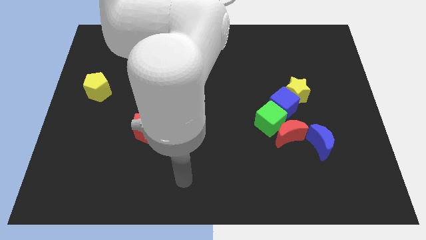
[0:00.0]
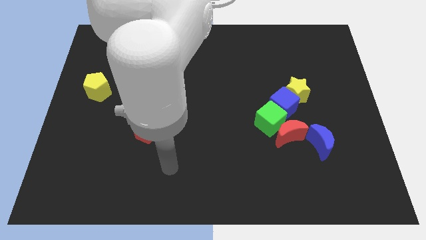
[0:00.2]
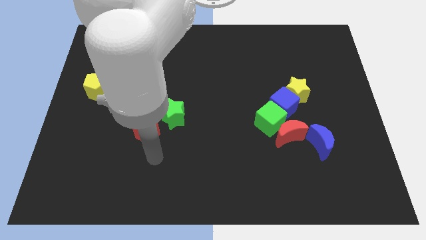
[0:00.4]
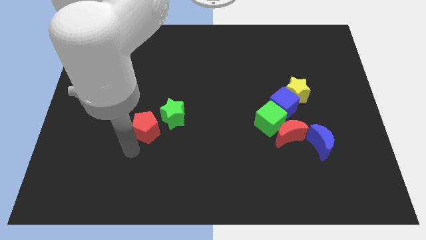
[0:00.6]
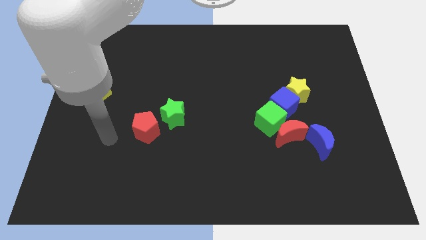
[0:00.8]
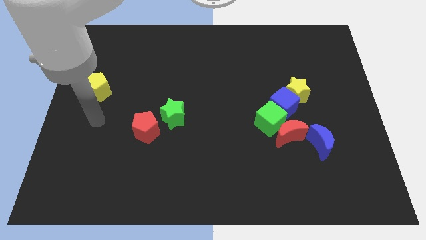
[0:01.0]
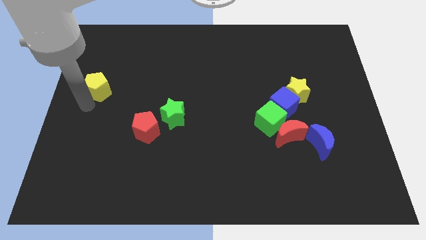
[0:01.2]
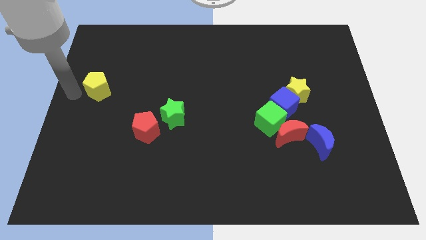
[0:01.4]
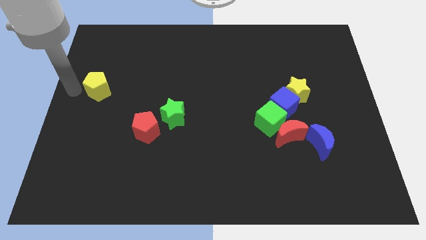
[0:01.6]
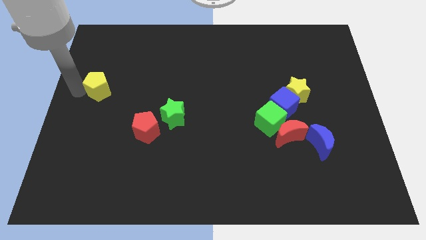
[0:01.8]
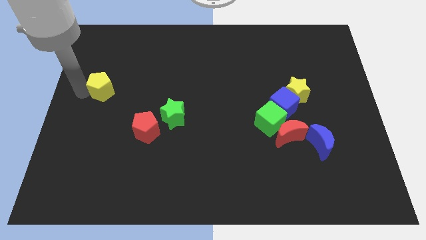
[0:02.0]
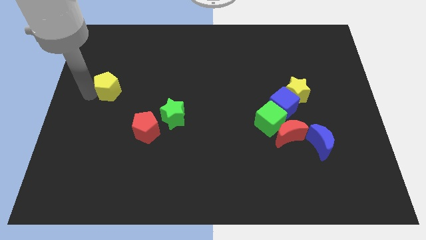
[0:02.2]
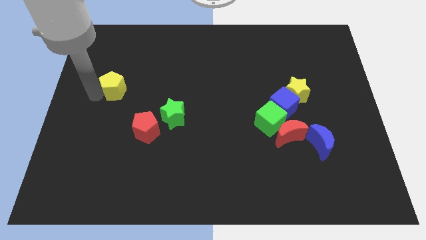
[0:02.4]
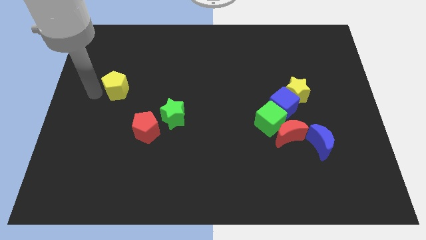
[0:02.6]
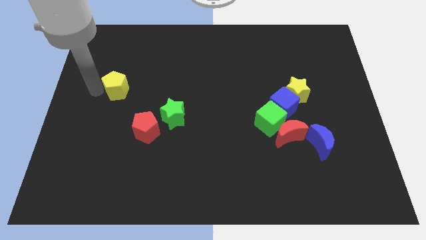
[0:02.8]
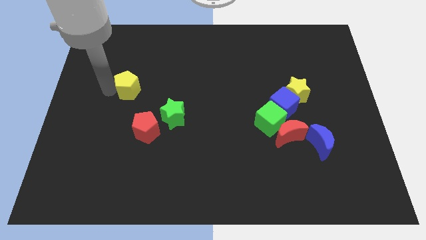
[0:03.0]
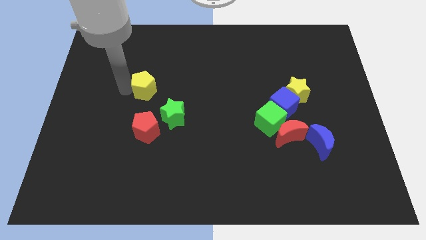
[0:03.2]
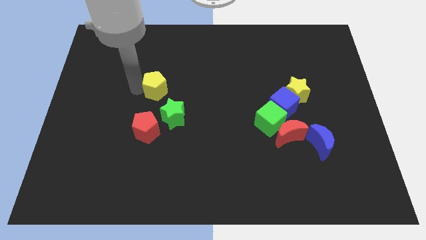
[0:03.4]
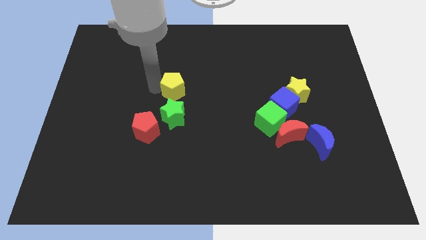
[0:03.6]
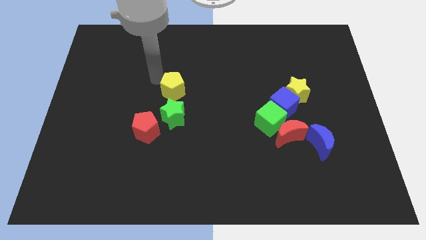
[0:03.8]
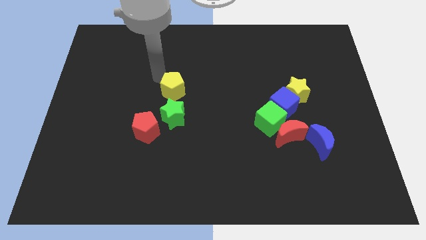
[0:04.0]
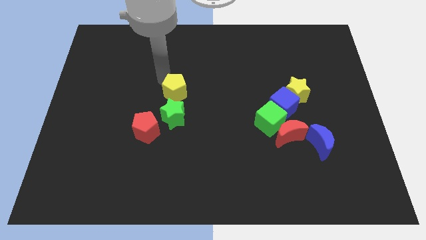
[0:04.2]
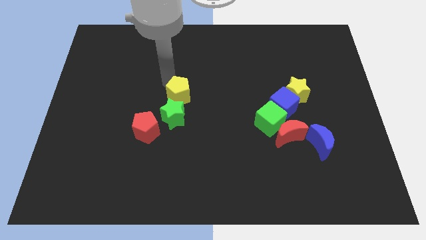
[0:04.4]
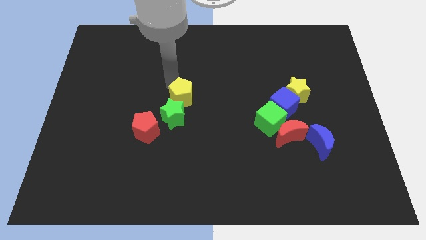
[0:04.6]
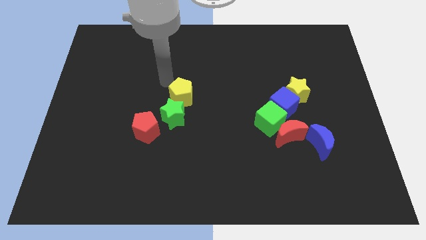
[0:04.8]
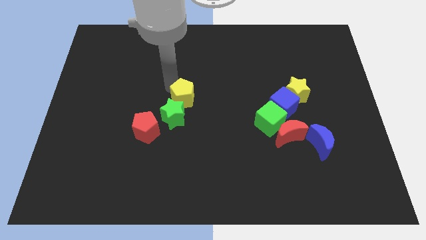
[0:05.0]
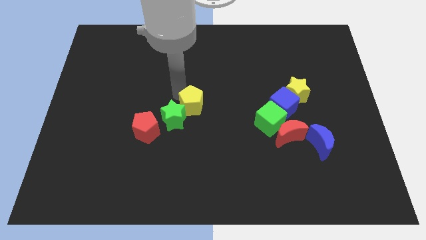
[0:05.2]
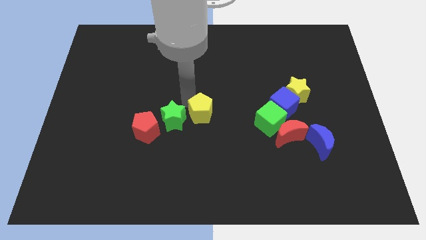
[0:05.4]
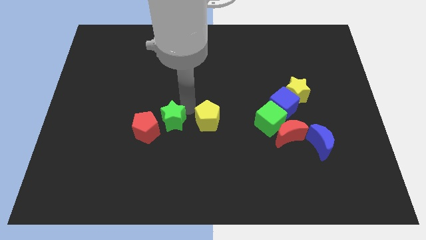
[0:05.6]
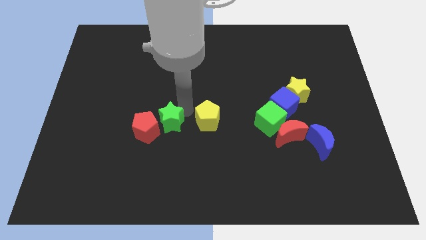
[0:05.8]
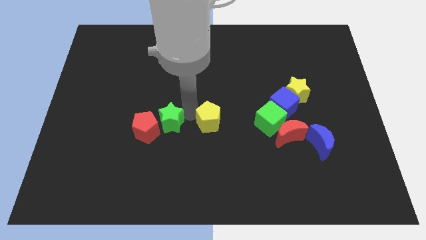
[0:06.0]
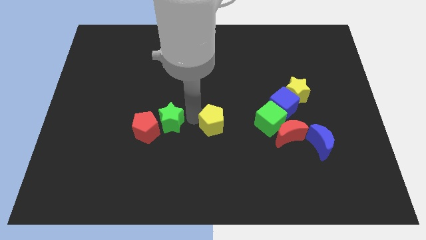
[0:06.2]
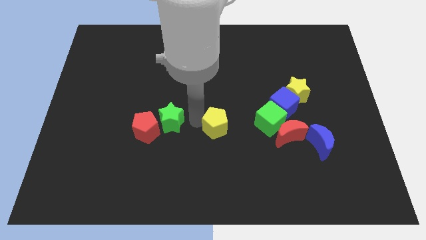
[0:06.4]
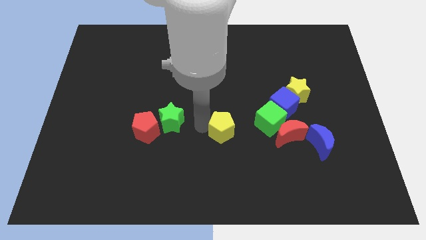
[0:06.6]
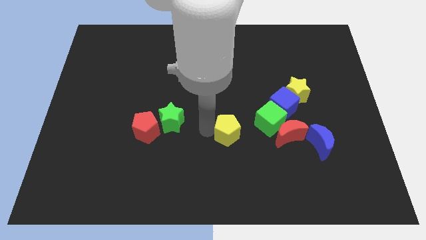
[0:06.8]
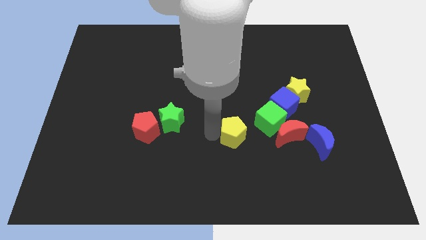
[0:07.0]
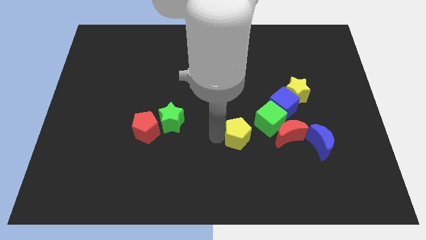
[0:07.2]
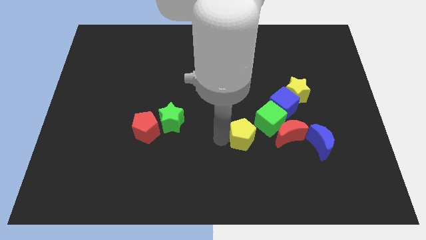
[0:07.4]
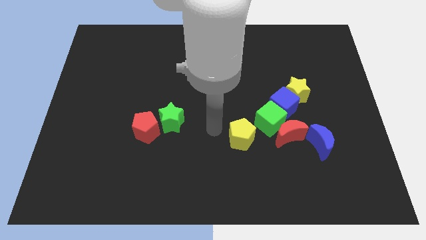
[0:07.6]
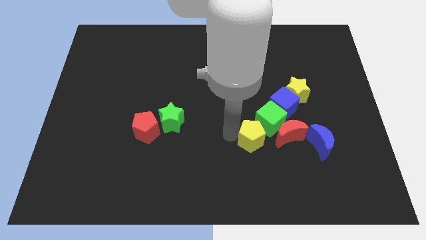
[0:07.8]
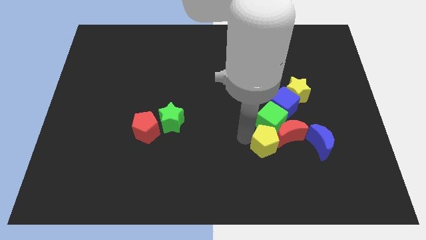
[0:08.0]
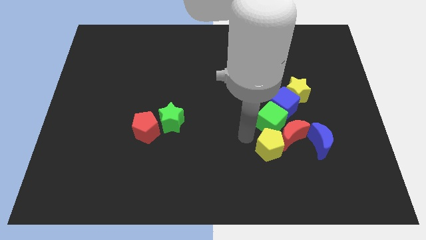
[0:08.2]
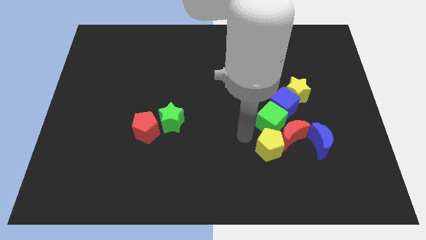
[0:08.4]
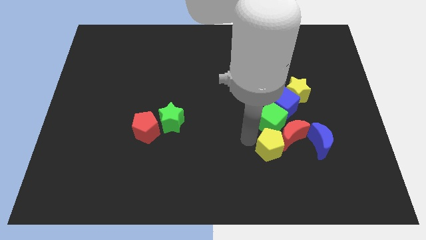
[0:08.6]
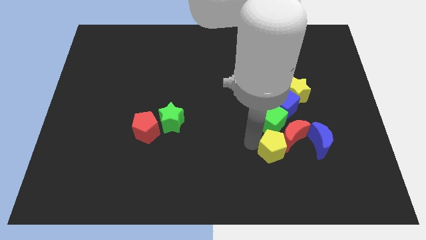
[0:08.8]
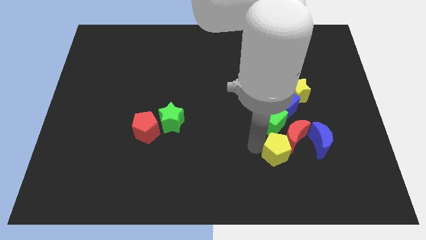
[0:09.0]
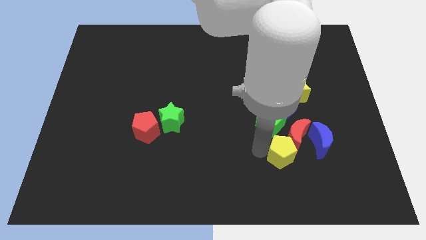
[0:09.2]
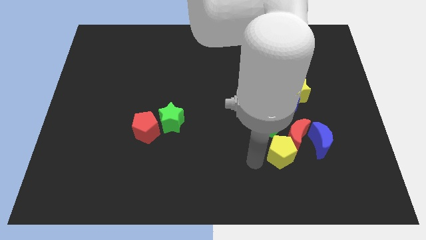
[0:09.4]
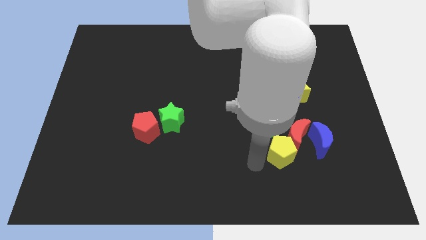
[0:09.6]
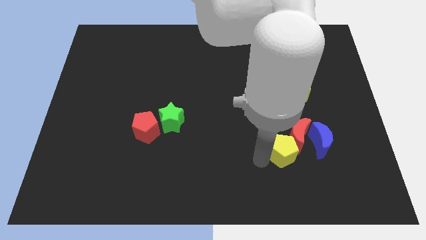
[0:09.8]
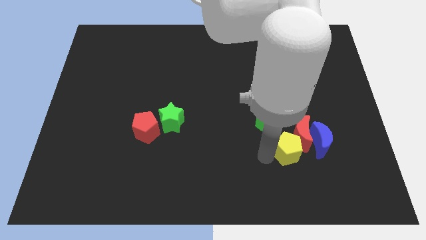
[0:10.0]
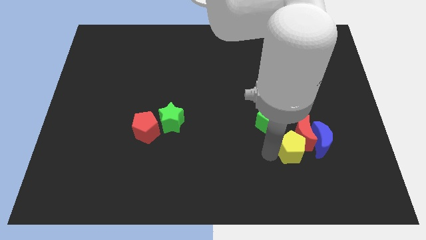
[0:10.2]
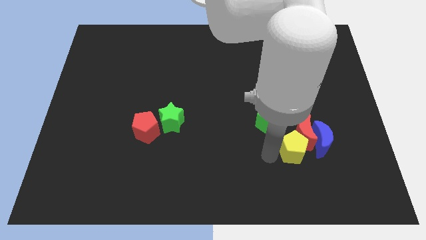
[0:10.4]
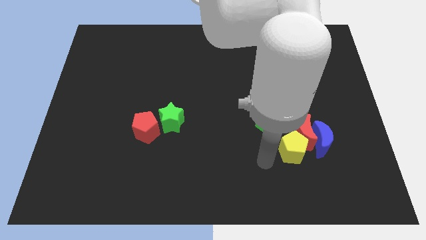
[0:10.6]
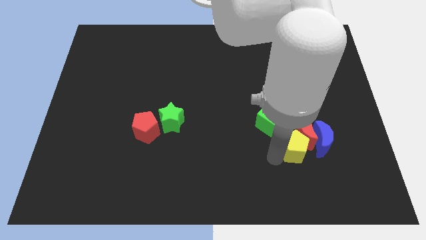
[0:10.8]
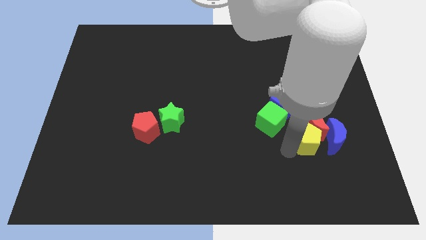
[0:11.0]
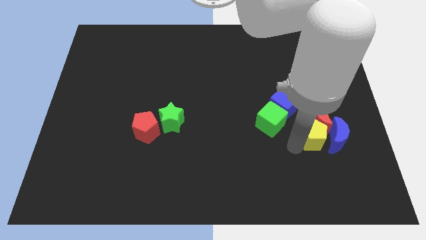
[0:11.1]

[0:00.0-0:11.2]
move the yellow pentagon close to the blue moon

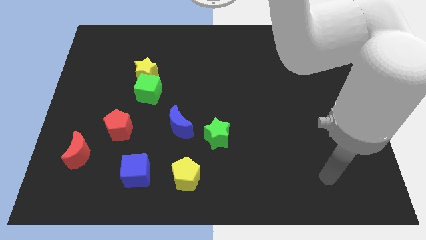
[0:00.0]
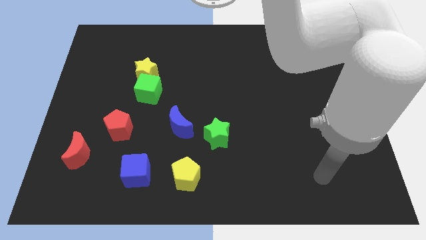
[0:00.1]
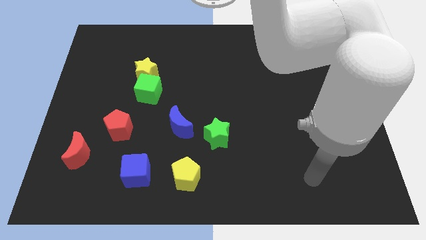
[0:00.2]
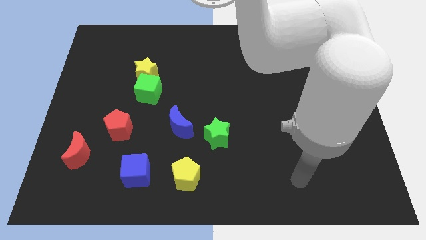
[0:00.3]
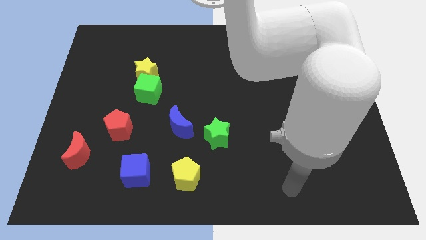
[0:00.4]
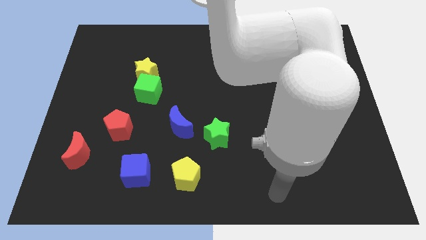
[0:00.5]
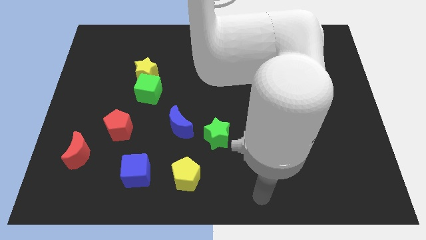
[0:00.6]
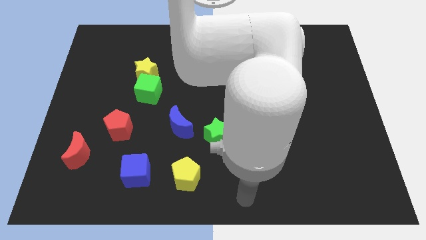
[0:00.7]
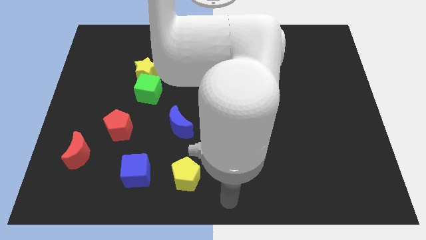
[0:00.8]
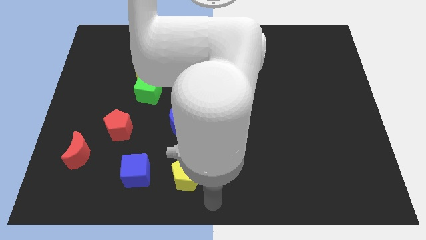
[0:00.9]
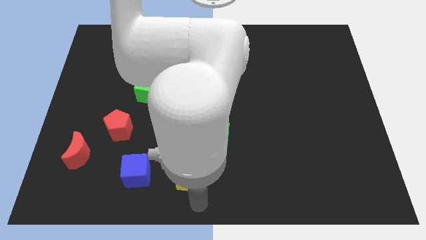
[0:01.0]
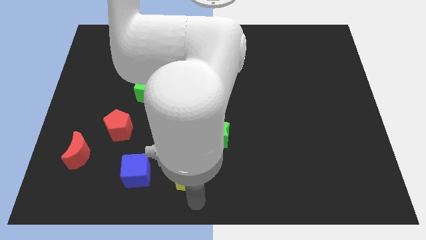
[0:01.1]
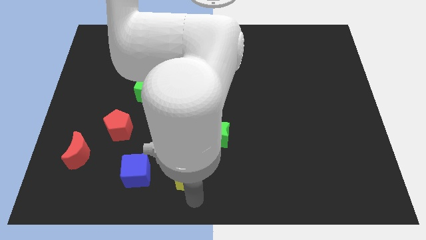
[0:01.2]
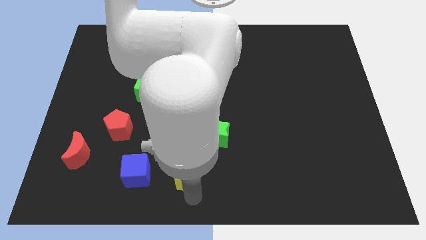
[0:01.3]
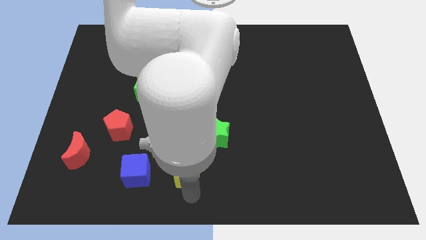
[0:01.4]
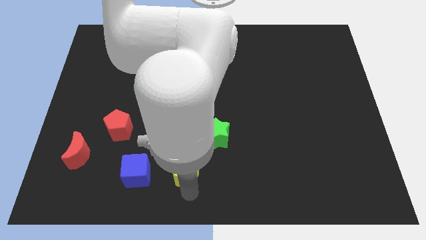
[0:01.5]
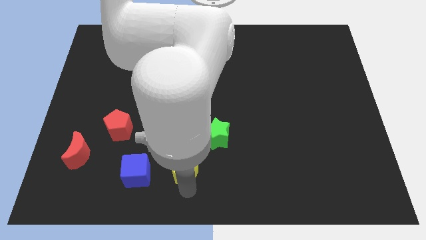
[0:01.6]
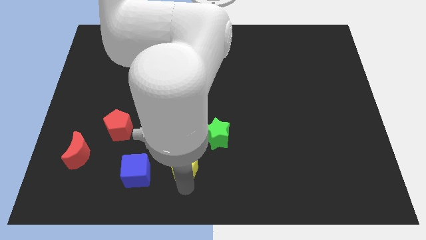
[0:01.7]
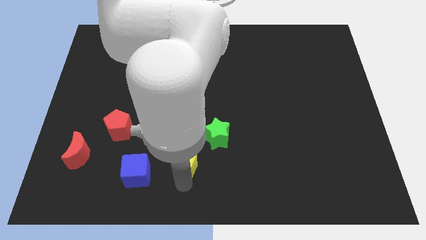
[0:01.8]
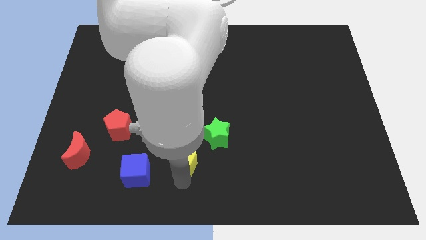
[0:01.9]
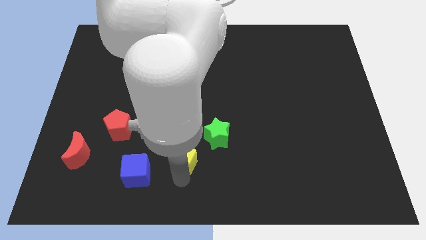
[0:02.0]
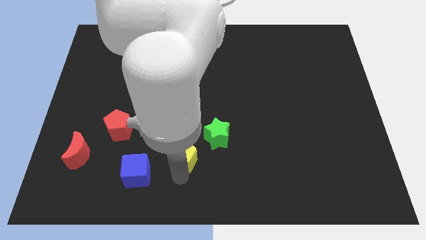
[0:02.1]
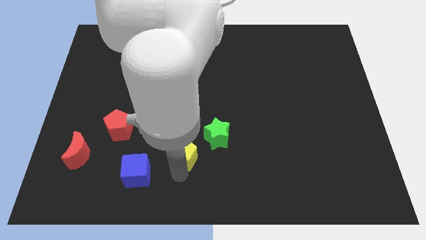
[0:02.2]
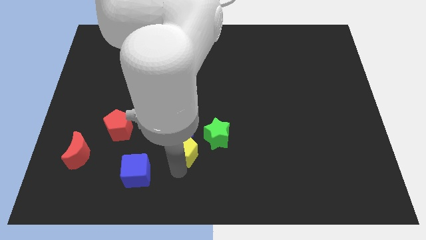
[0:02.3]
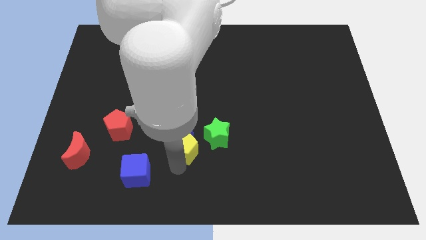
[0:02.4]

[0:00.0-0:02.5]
put the yellow pentagon next to the blue moon

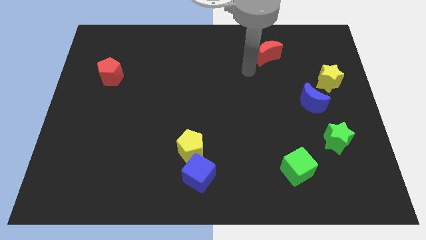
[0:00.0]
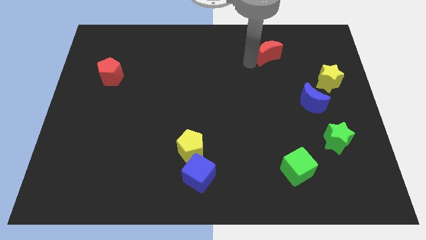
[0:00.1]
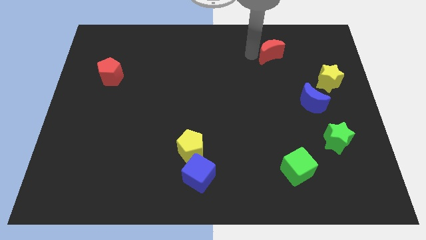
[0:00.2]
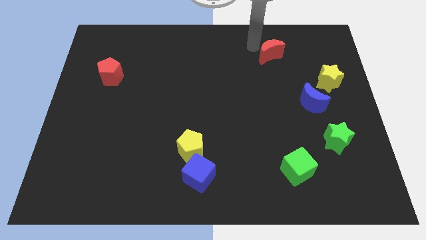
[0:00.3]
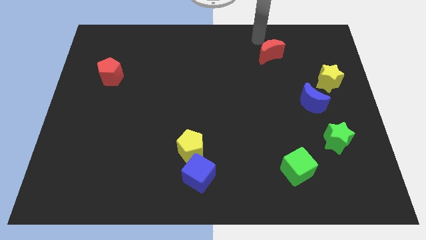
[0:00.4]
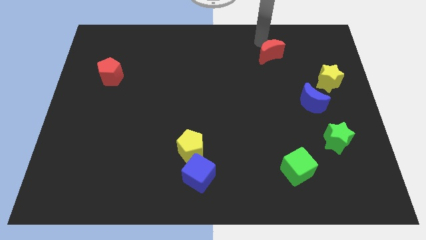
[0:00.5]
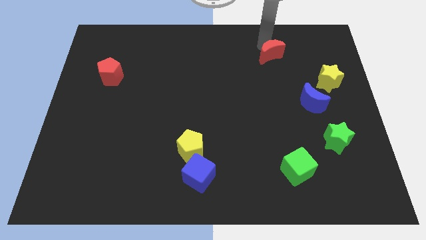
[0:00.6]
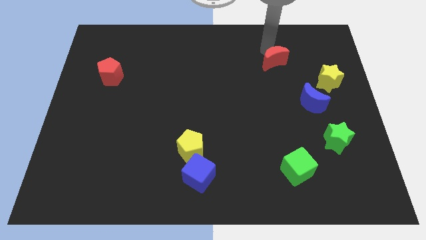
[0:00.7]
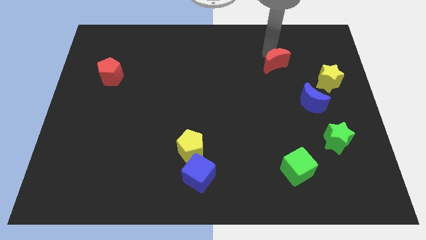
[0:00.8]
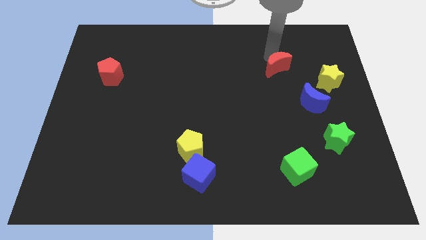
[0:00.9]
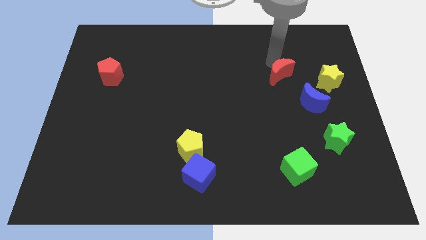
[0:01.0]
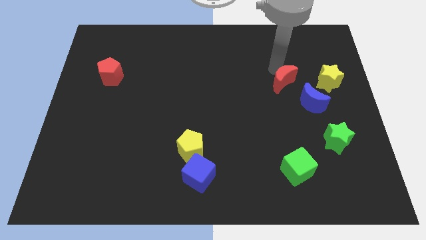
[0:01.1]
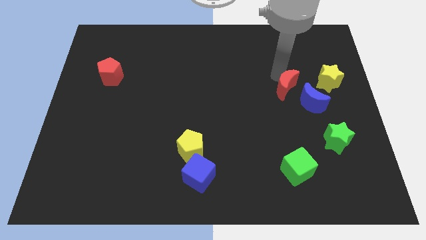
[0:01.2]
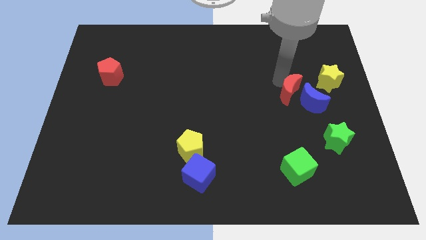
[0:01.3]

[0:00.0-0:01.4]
move the red moon close to the blue moon
